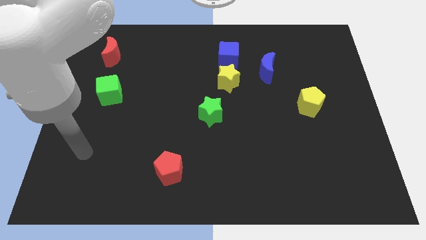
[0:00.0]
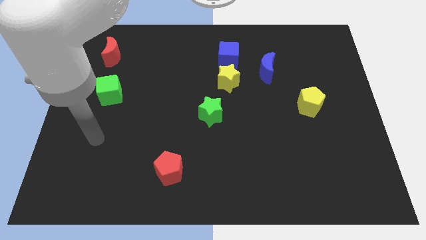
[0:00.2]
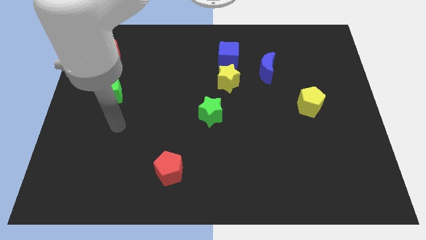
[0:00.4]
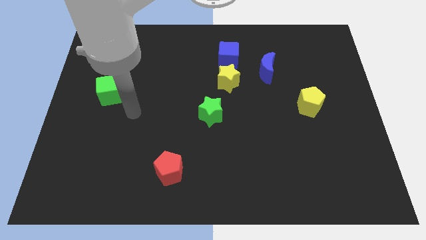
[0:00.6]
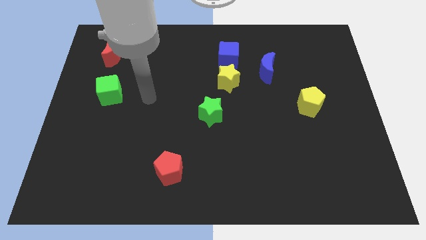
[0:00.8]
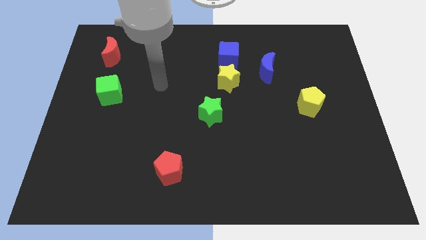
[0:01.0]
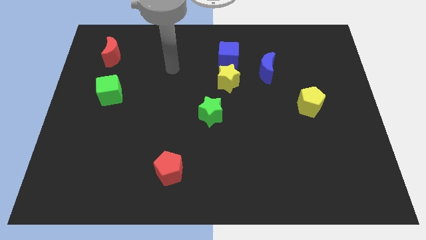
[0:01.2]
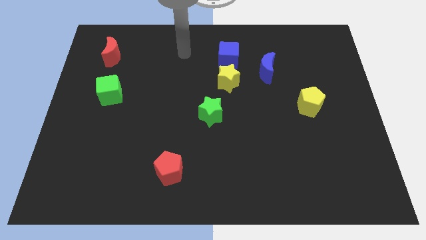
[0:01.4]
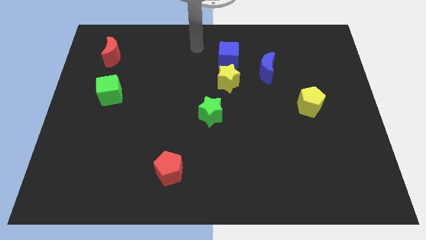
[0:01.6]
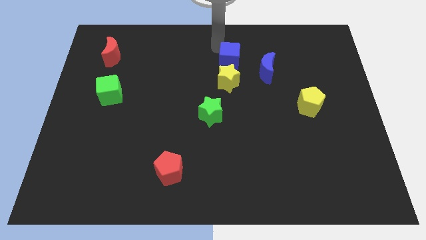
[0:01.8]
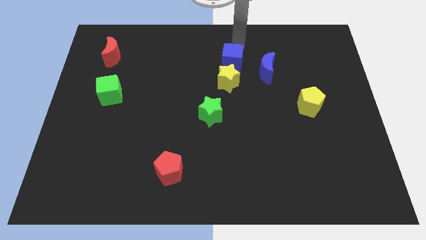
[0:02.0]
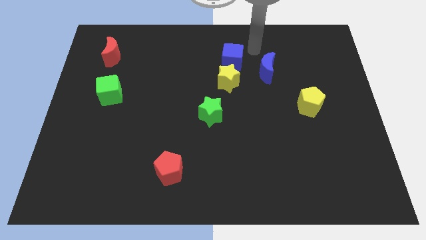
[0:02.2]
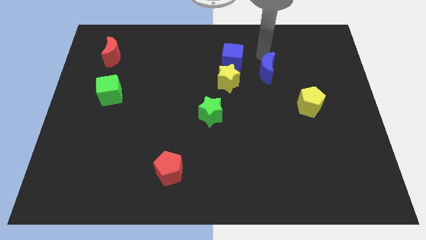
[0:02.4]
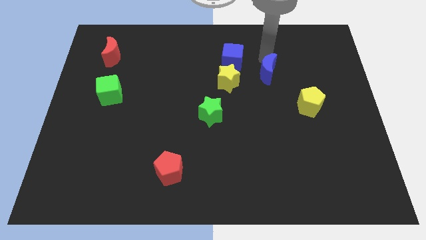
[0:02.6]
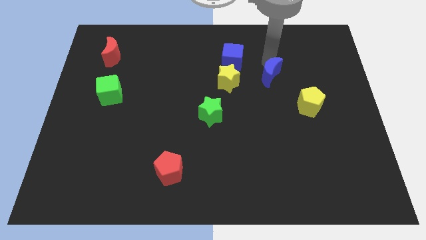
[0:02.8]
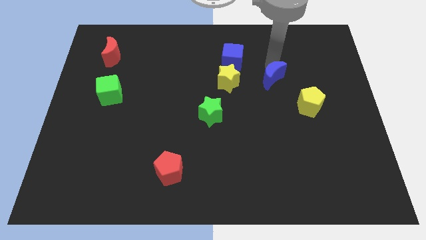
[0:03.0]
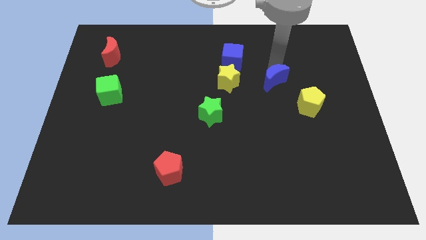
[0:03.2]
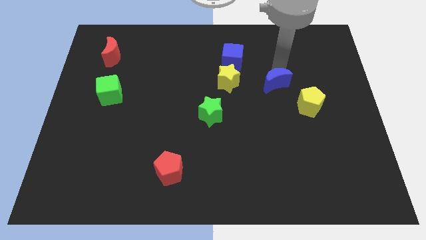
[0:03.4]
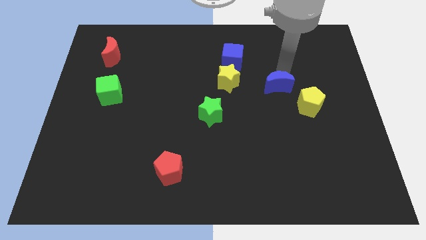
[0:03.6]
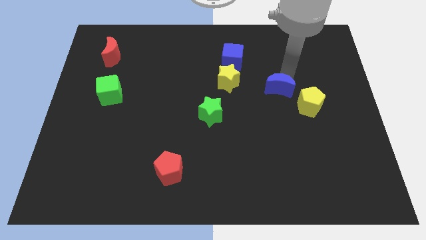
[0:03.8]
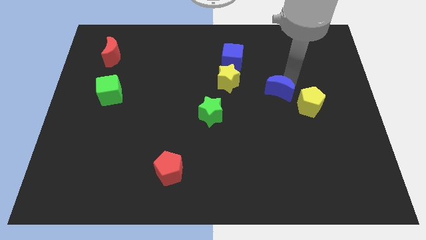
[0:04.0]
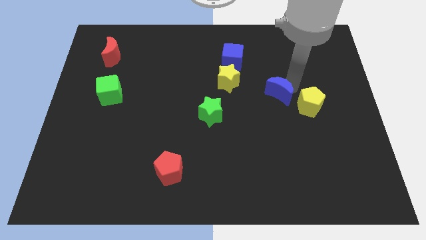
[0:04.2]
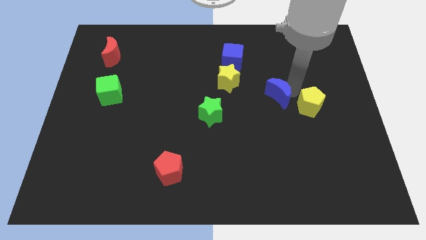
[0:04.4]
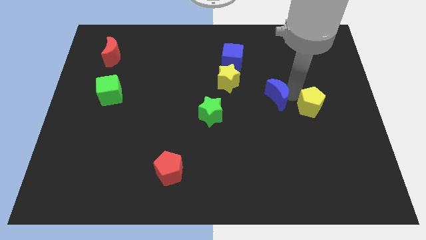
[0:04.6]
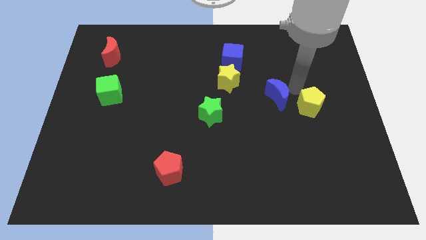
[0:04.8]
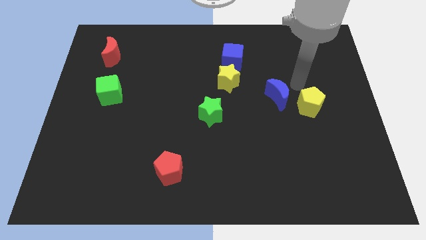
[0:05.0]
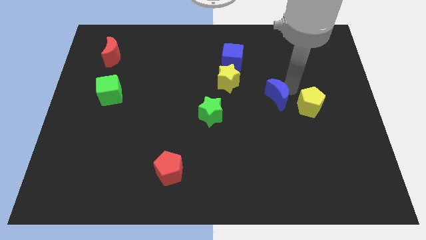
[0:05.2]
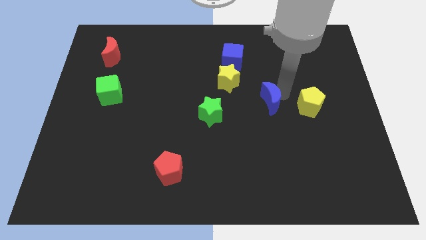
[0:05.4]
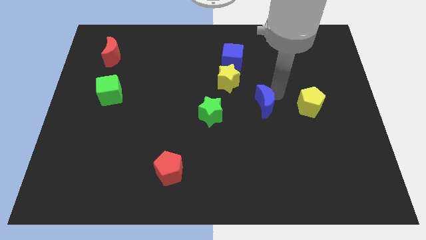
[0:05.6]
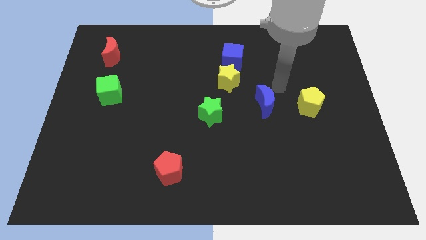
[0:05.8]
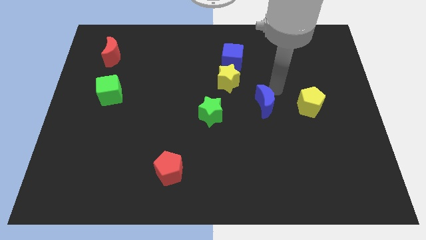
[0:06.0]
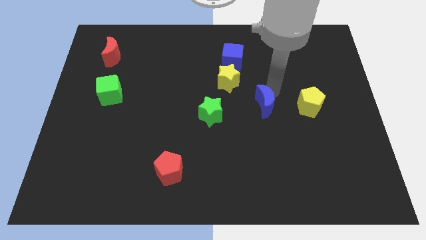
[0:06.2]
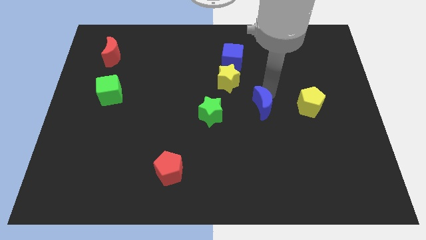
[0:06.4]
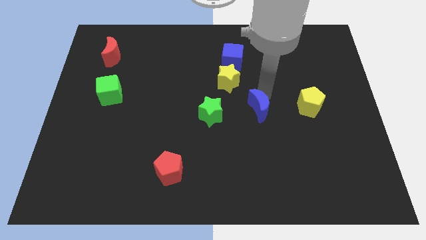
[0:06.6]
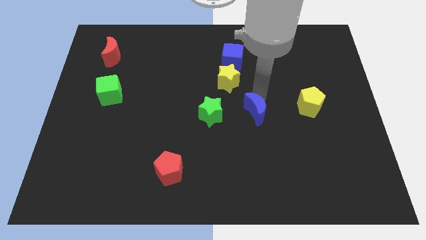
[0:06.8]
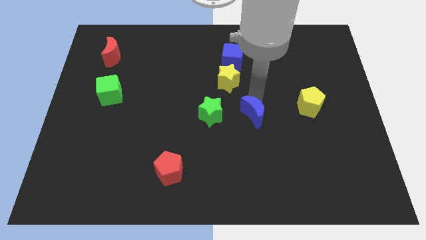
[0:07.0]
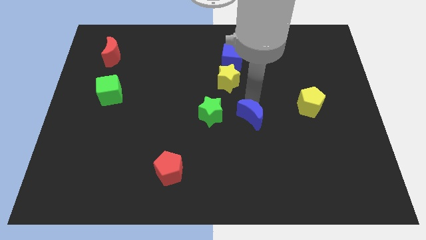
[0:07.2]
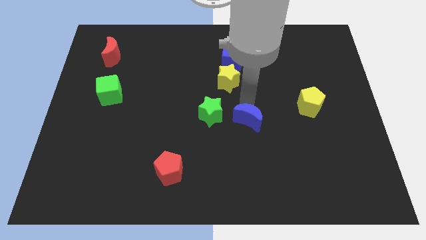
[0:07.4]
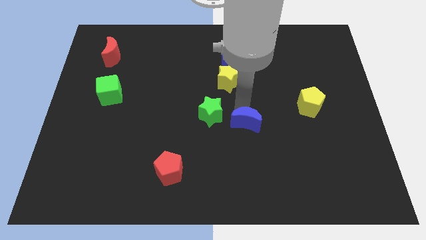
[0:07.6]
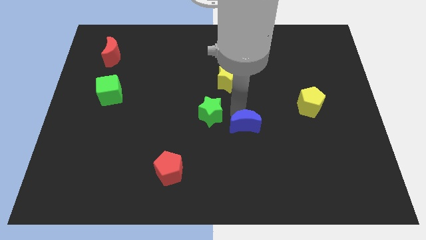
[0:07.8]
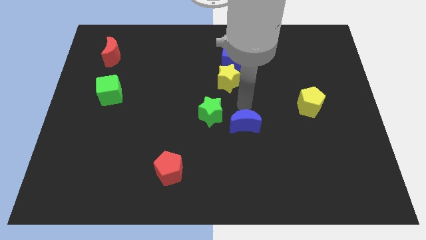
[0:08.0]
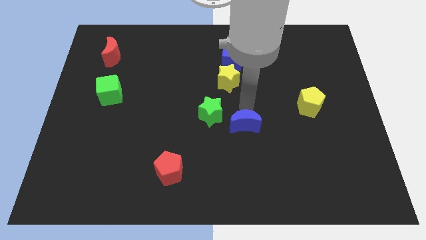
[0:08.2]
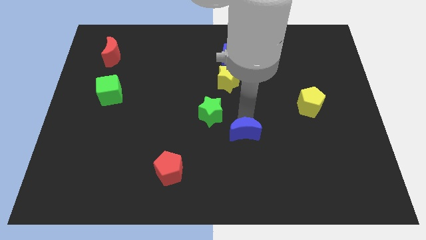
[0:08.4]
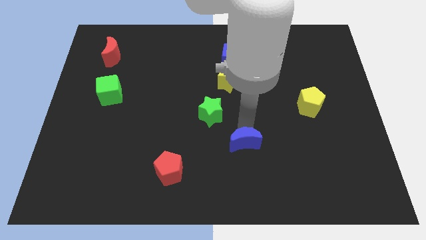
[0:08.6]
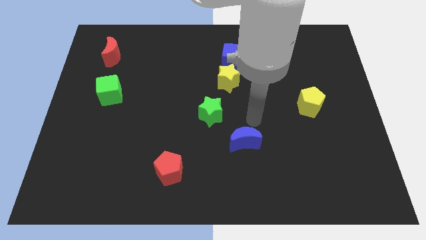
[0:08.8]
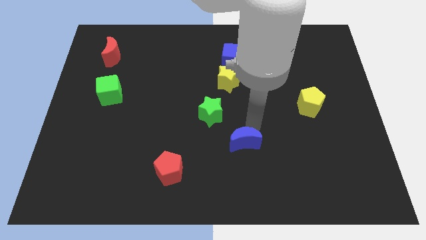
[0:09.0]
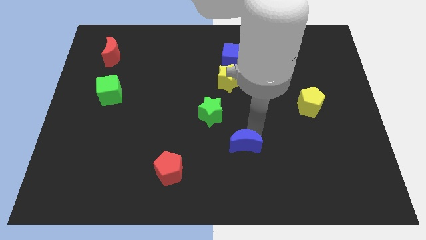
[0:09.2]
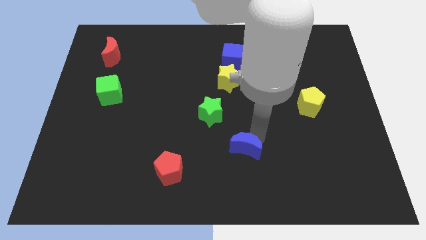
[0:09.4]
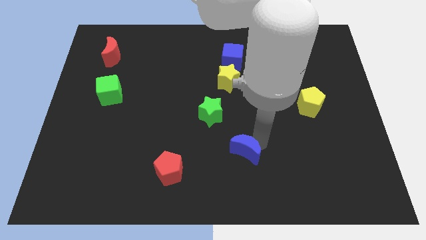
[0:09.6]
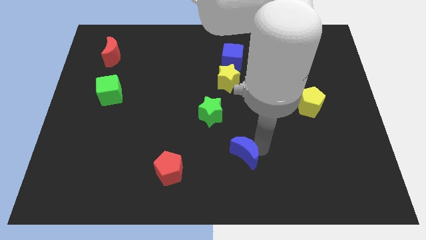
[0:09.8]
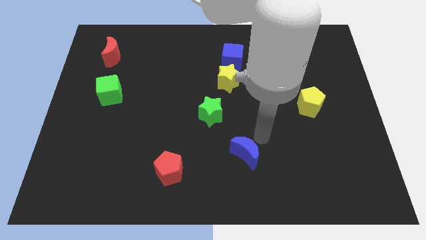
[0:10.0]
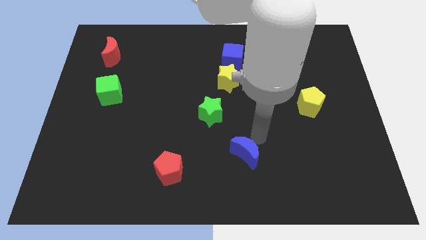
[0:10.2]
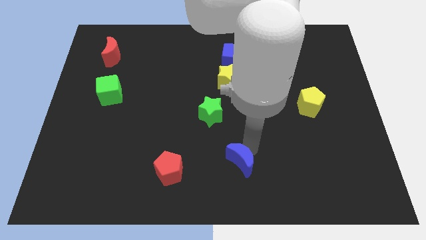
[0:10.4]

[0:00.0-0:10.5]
move the blue moon to the bottom
